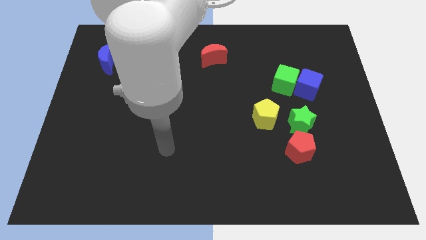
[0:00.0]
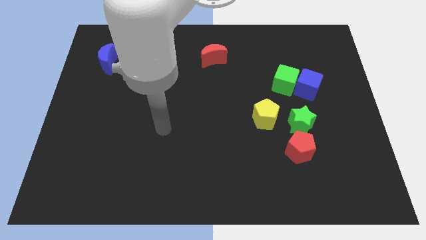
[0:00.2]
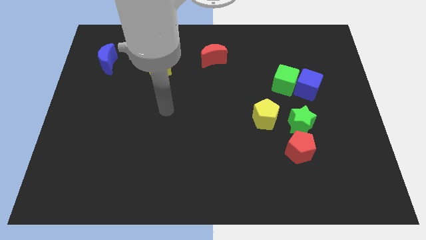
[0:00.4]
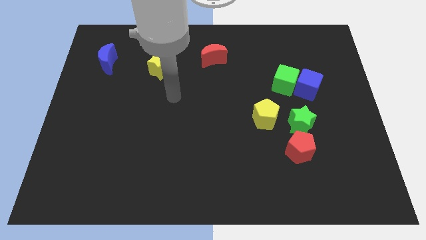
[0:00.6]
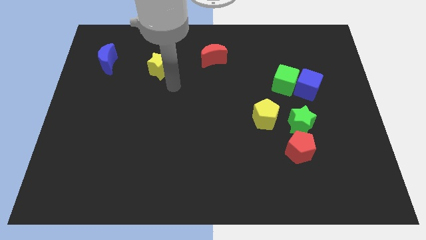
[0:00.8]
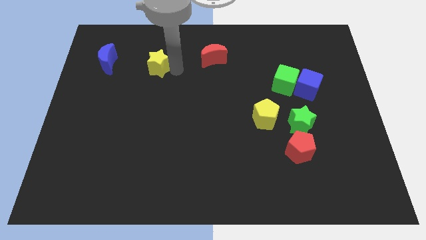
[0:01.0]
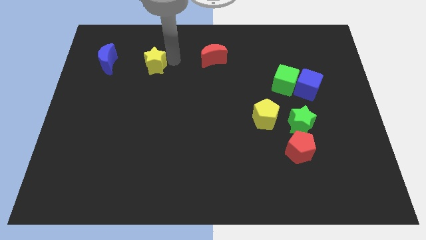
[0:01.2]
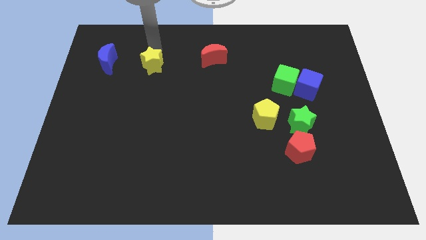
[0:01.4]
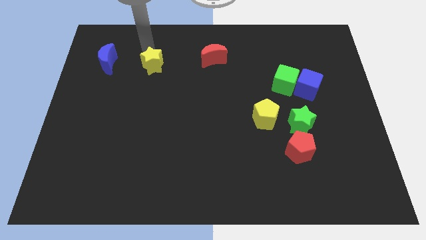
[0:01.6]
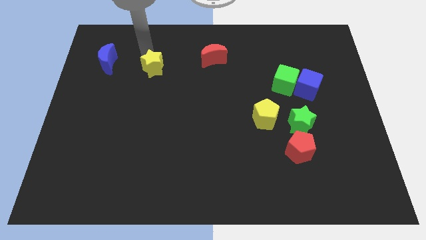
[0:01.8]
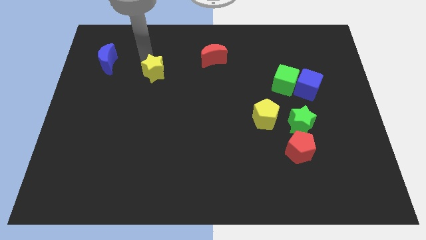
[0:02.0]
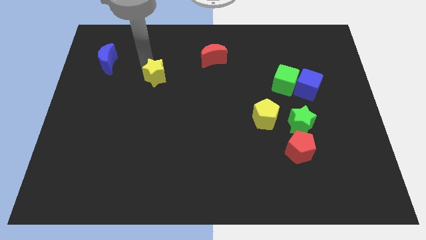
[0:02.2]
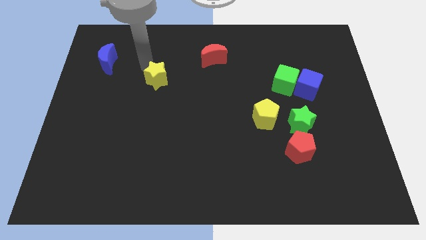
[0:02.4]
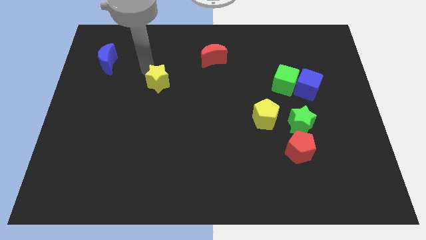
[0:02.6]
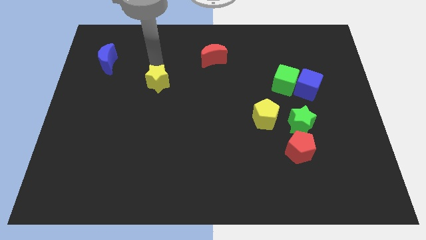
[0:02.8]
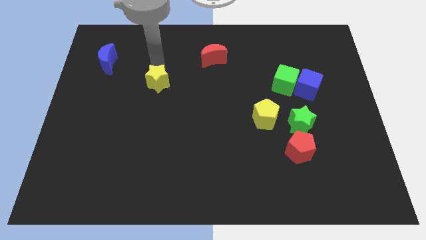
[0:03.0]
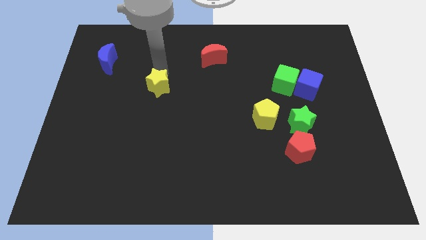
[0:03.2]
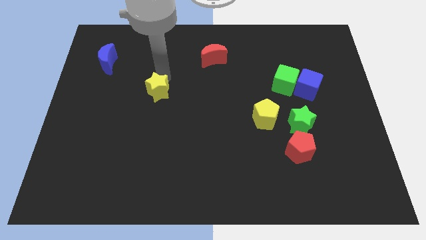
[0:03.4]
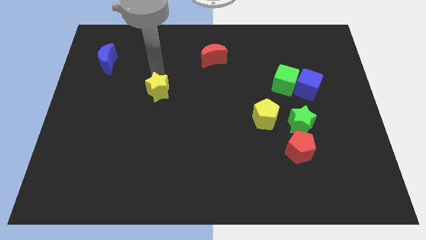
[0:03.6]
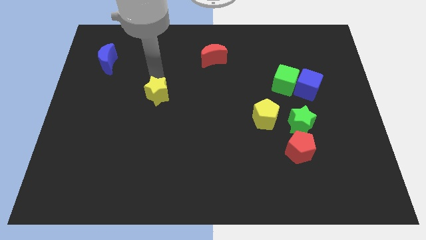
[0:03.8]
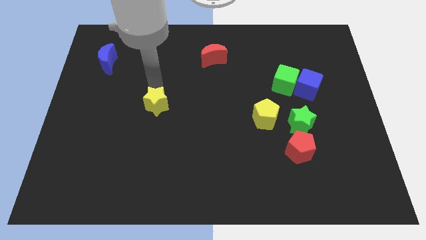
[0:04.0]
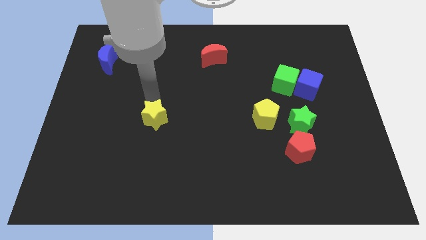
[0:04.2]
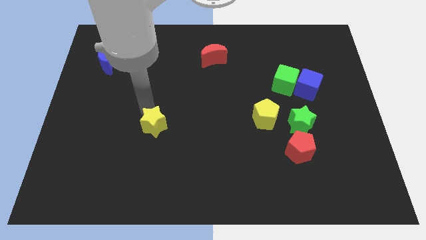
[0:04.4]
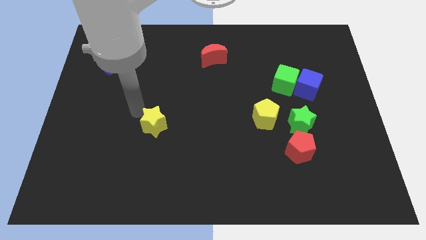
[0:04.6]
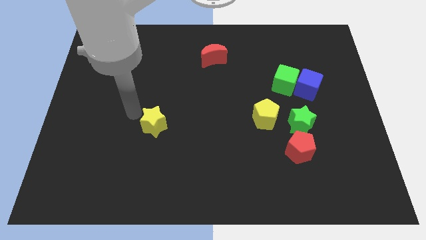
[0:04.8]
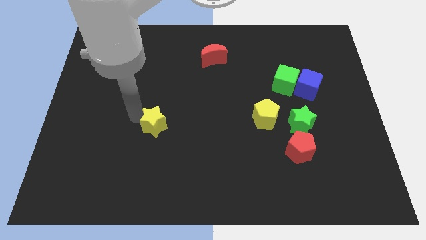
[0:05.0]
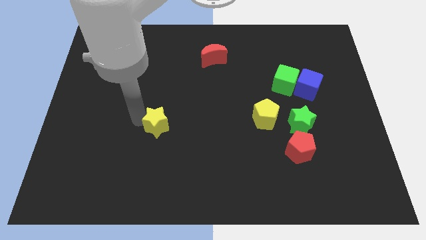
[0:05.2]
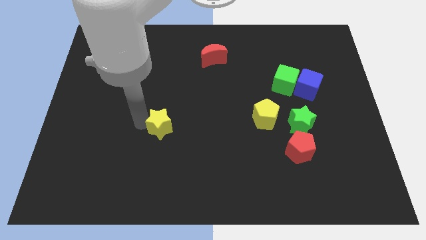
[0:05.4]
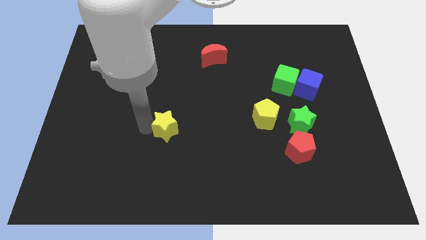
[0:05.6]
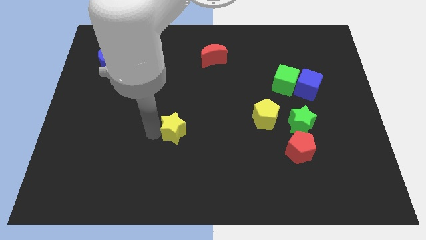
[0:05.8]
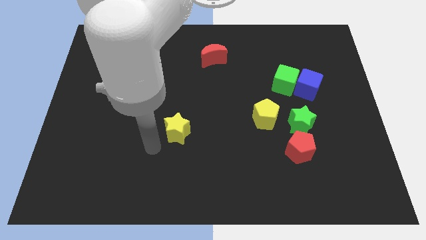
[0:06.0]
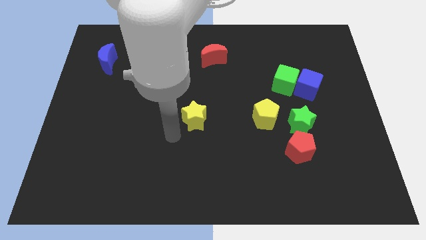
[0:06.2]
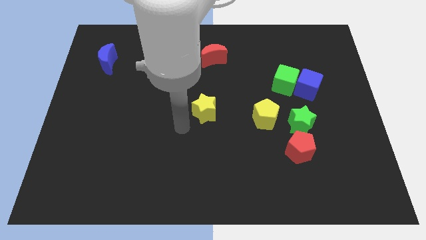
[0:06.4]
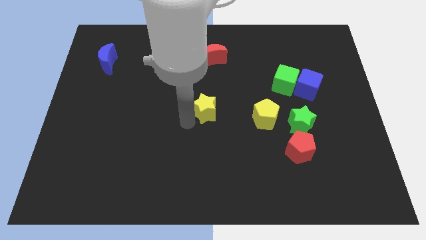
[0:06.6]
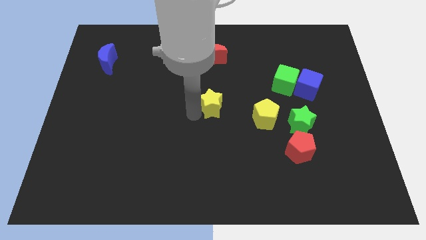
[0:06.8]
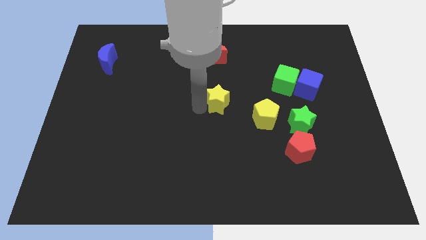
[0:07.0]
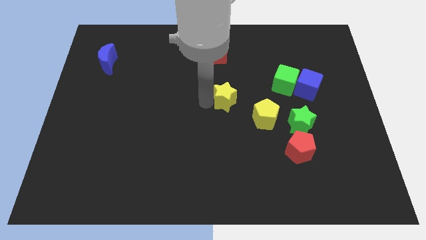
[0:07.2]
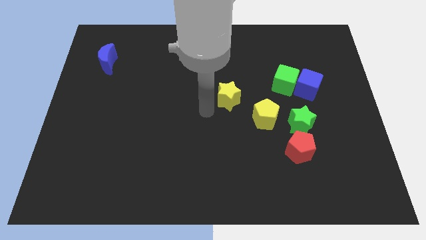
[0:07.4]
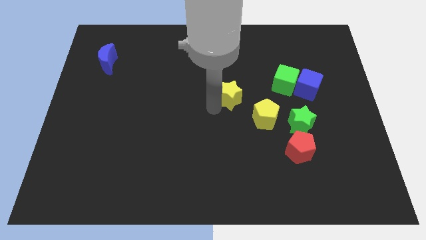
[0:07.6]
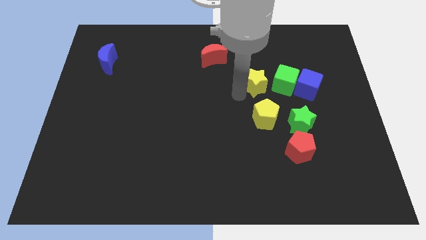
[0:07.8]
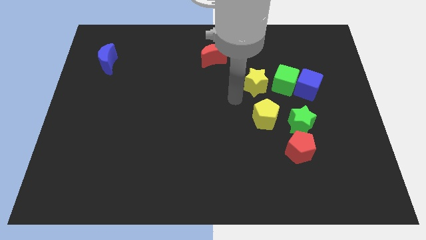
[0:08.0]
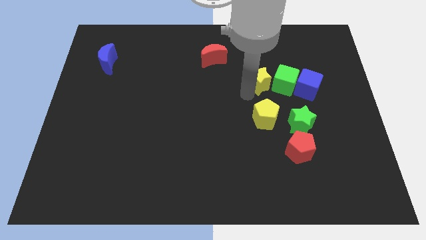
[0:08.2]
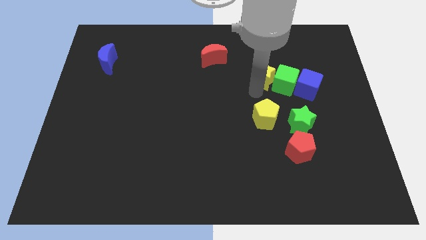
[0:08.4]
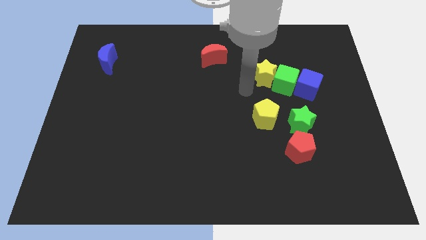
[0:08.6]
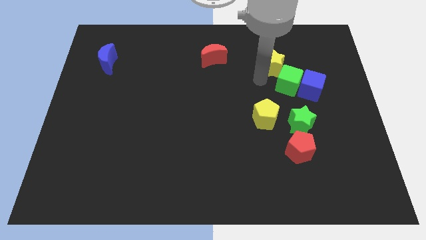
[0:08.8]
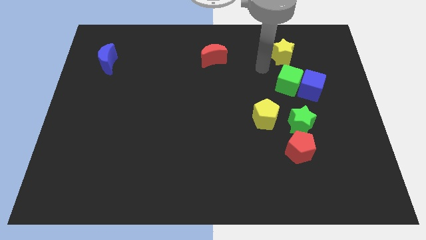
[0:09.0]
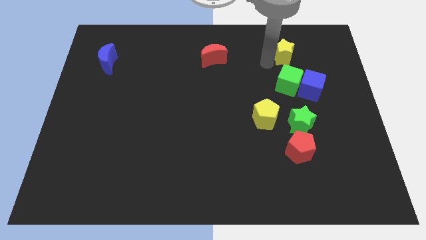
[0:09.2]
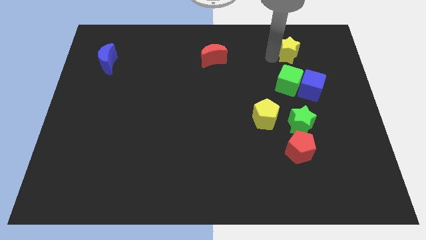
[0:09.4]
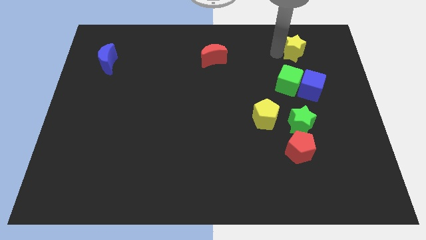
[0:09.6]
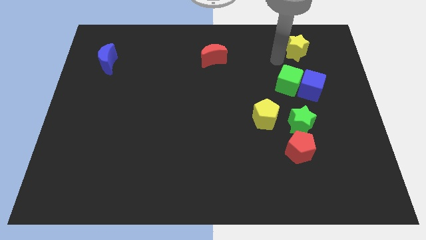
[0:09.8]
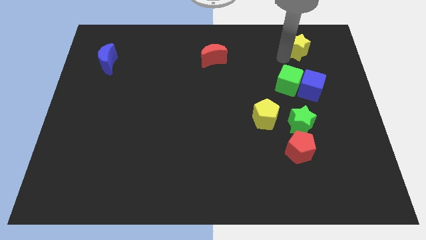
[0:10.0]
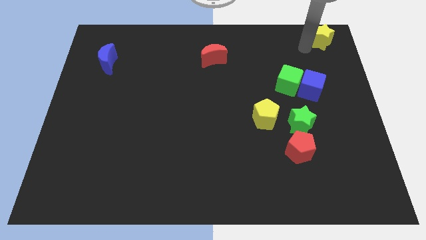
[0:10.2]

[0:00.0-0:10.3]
move the yellow star to the upper right corner
